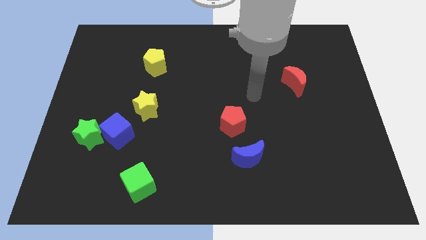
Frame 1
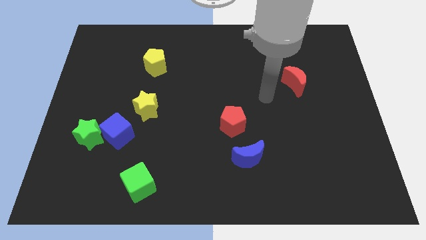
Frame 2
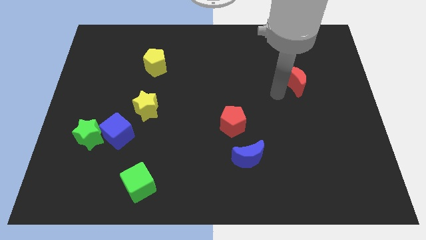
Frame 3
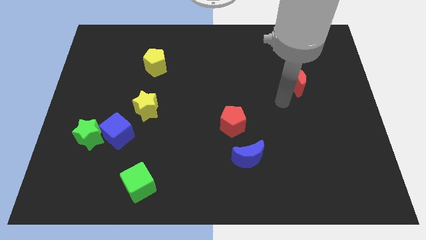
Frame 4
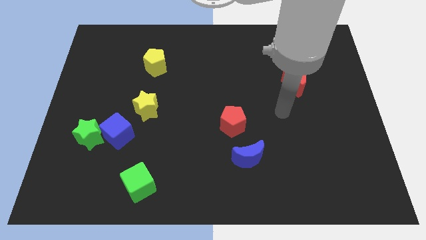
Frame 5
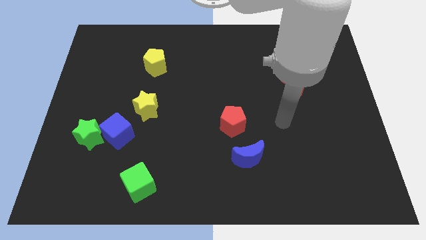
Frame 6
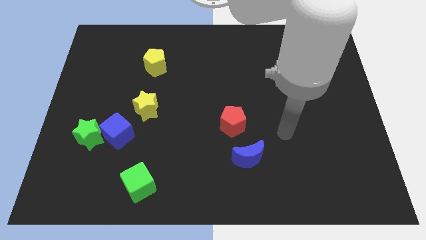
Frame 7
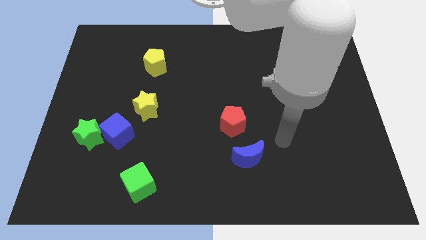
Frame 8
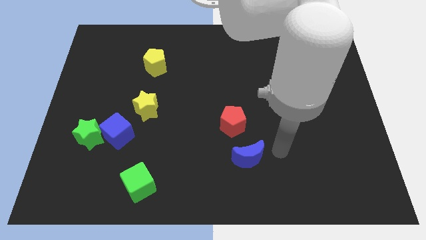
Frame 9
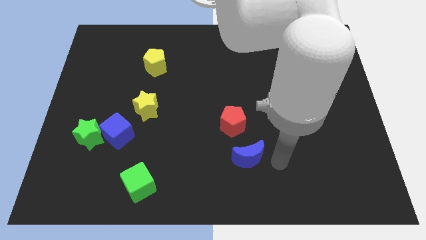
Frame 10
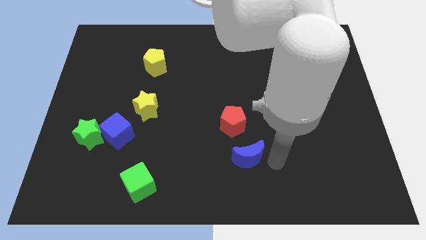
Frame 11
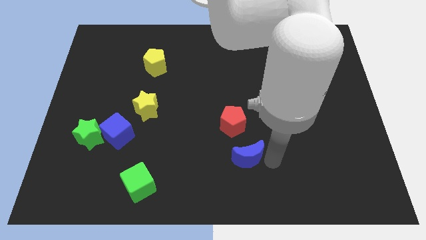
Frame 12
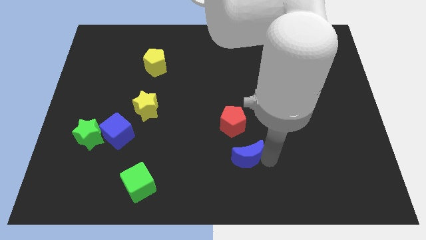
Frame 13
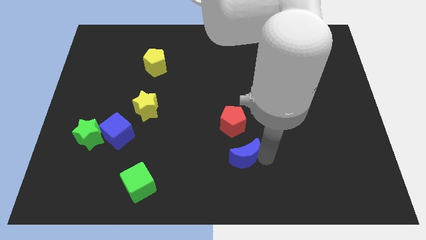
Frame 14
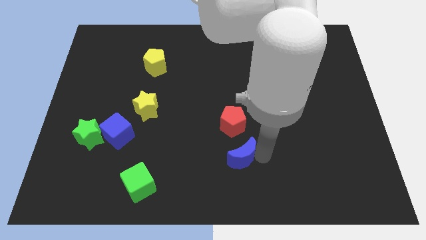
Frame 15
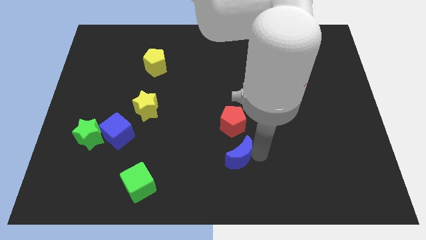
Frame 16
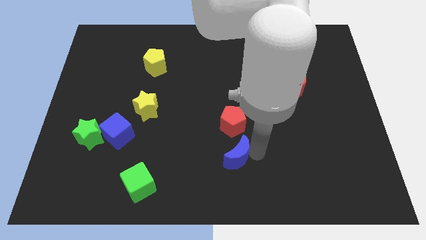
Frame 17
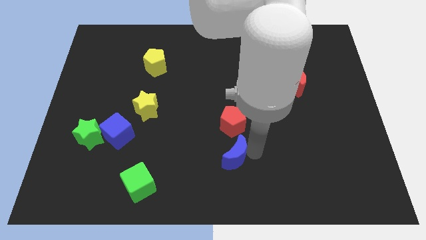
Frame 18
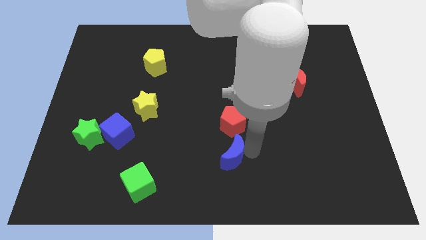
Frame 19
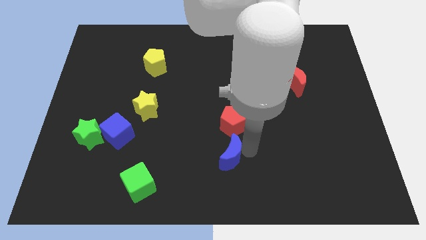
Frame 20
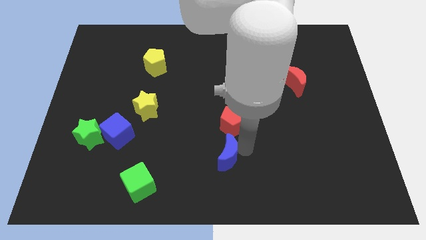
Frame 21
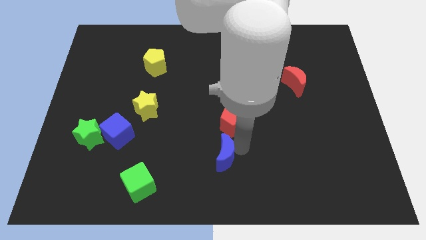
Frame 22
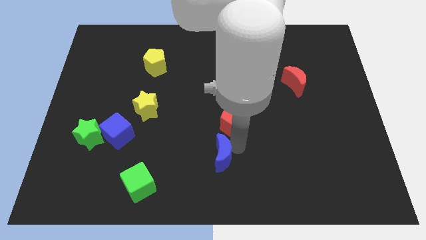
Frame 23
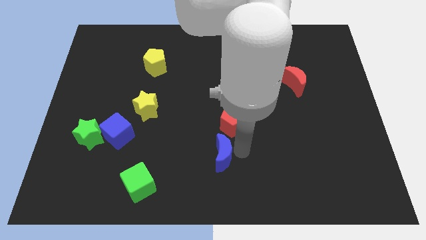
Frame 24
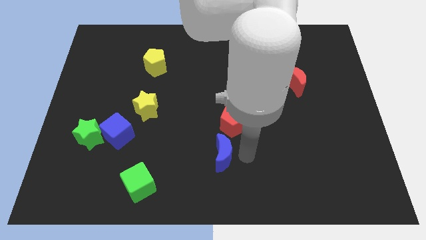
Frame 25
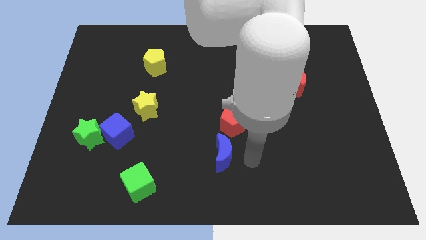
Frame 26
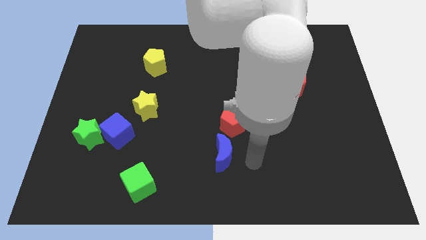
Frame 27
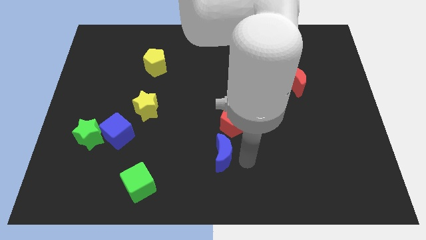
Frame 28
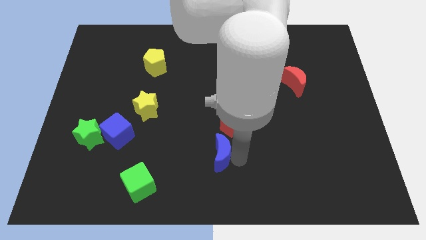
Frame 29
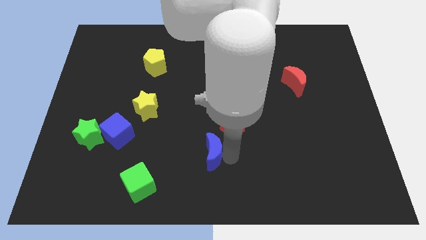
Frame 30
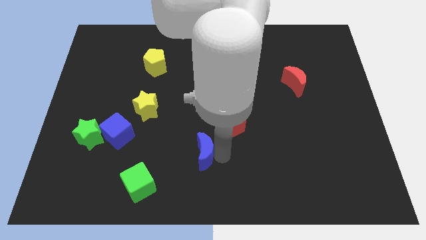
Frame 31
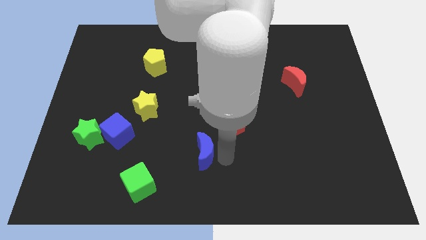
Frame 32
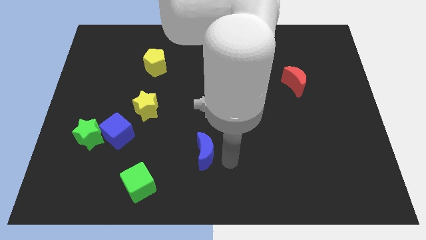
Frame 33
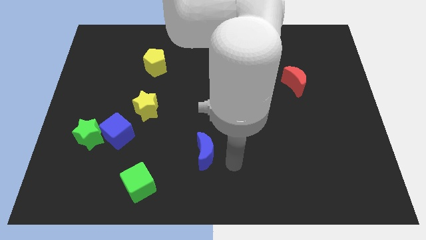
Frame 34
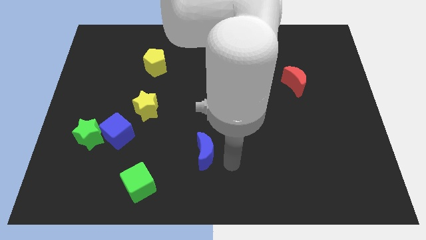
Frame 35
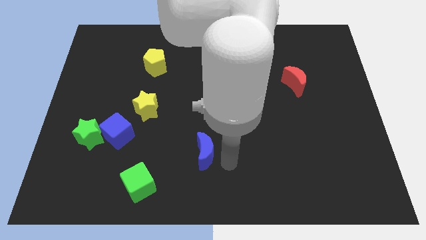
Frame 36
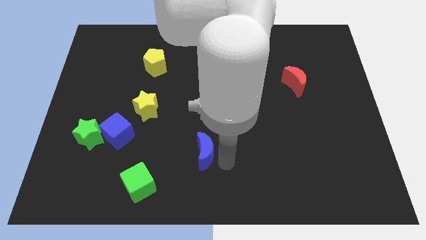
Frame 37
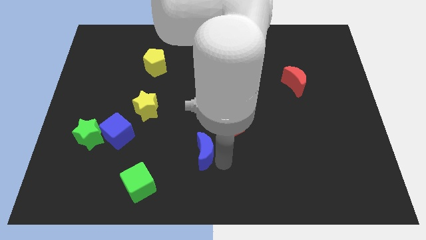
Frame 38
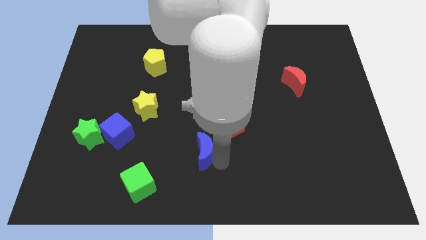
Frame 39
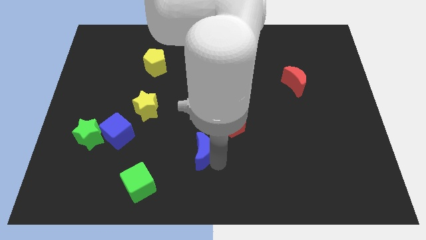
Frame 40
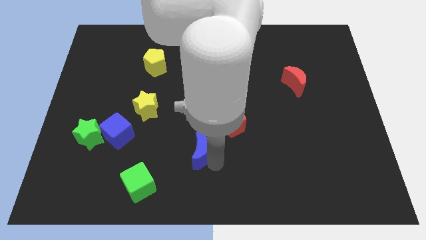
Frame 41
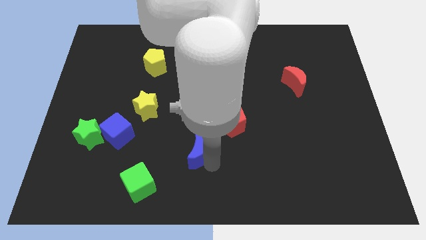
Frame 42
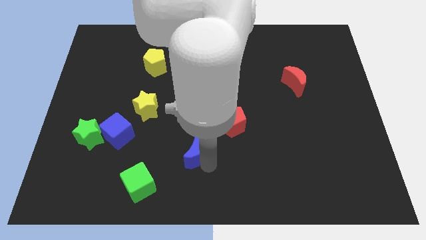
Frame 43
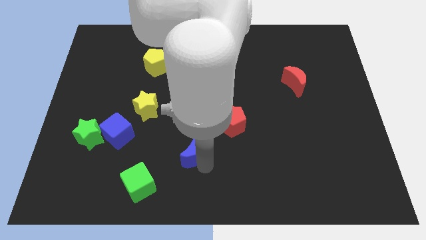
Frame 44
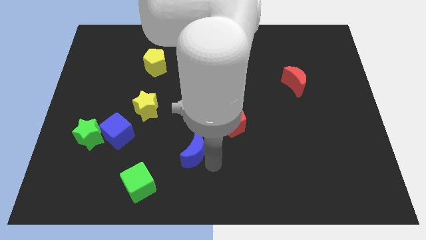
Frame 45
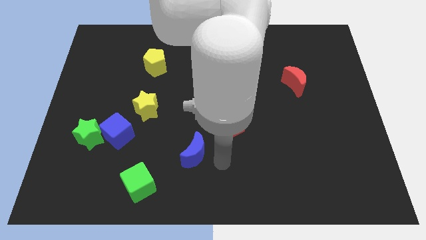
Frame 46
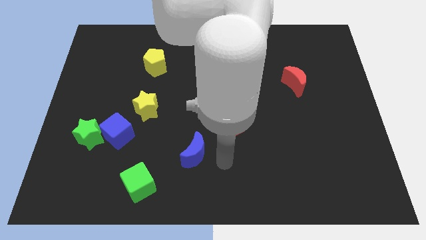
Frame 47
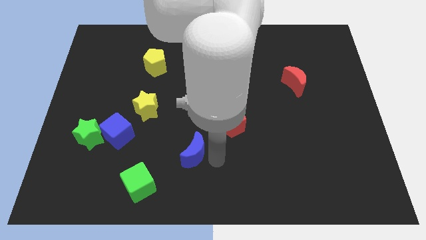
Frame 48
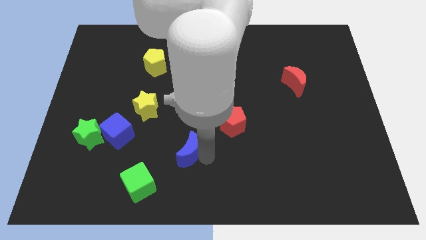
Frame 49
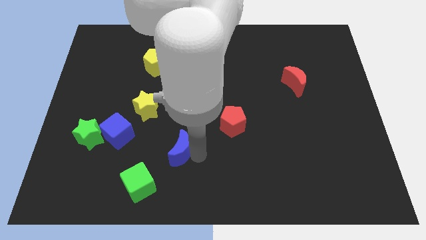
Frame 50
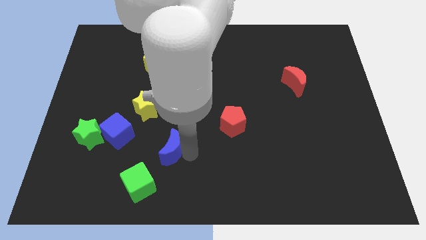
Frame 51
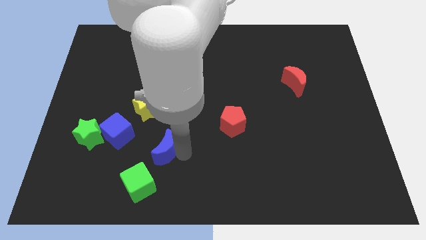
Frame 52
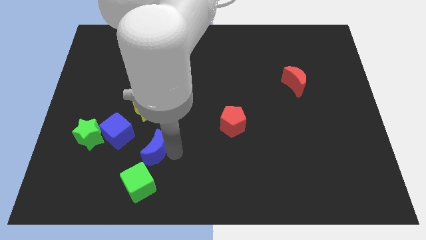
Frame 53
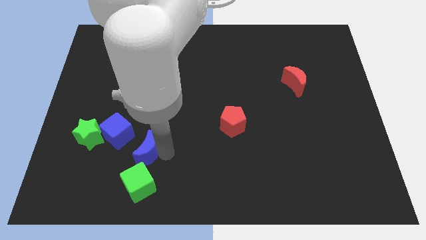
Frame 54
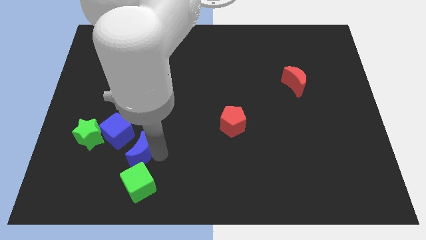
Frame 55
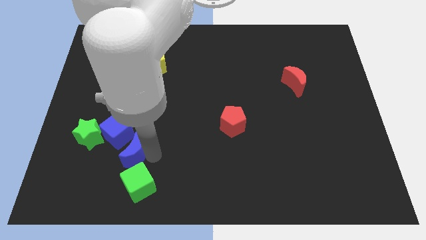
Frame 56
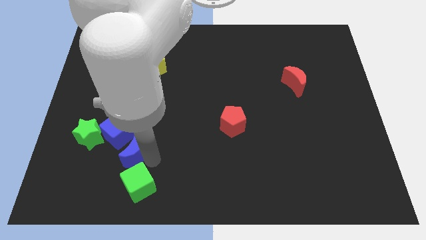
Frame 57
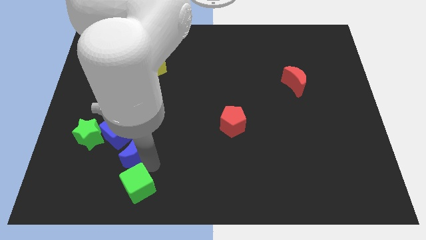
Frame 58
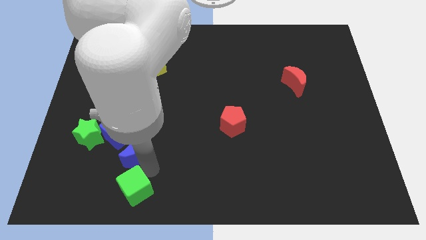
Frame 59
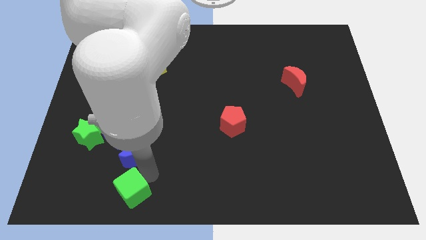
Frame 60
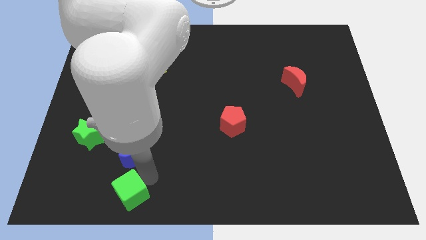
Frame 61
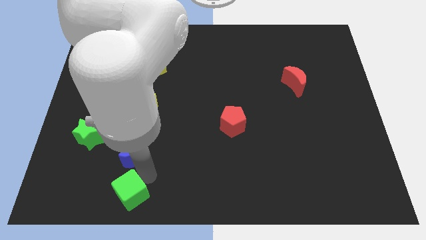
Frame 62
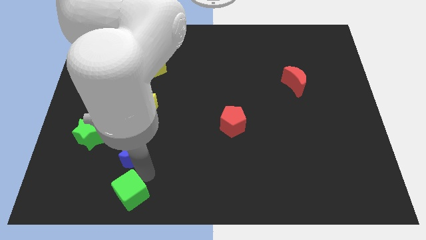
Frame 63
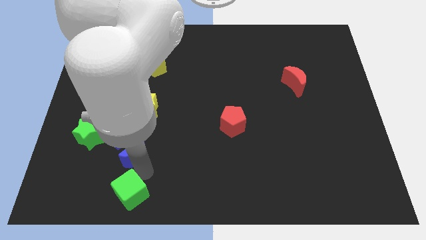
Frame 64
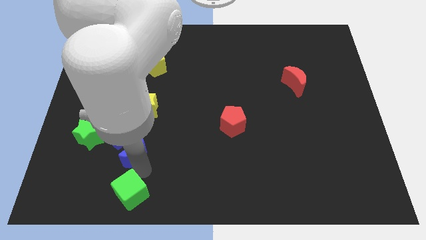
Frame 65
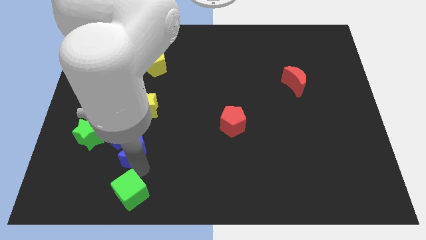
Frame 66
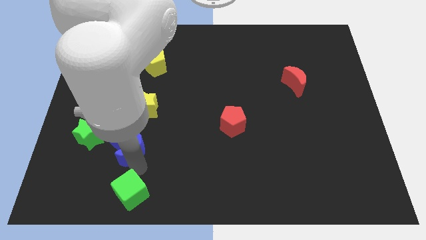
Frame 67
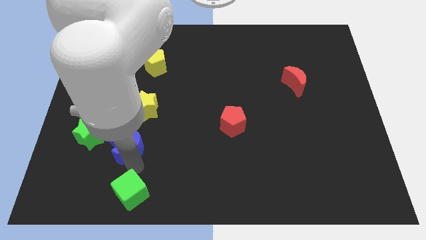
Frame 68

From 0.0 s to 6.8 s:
move the blue moon towards the blue cube

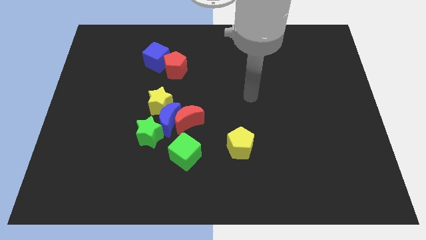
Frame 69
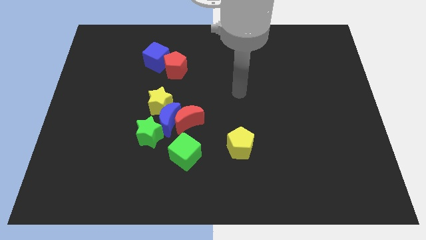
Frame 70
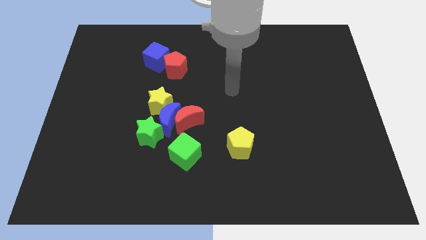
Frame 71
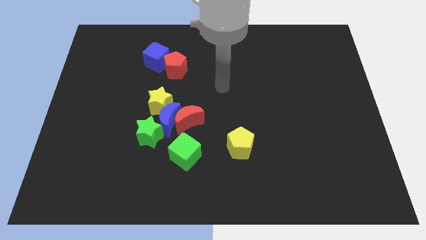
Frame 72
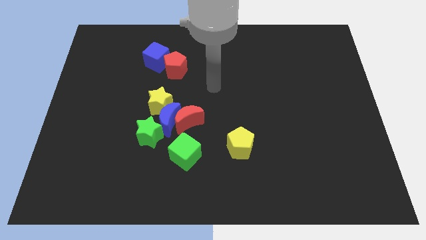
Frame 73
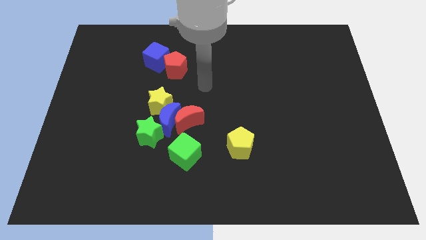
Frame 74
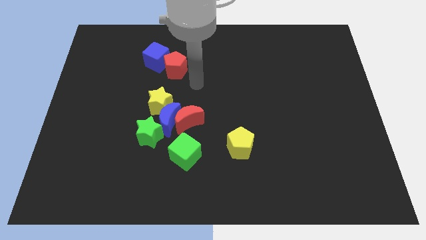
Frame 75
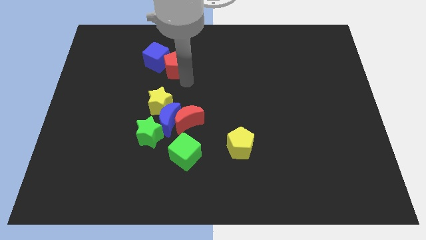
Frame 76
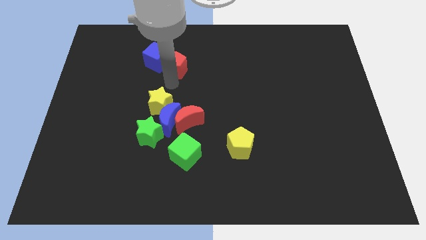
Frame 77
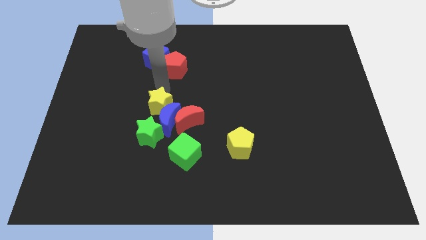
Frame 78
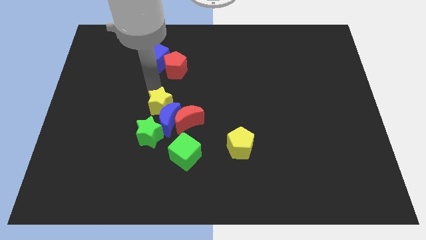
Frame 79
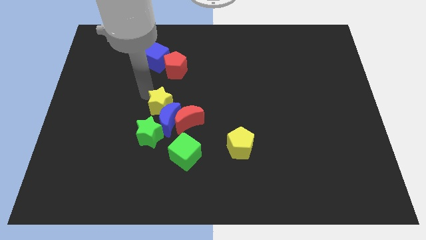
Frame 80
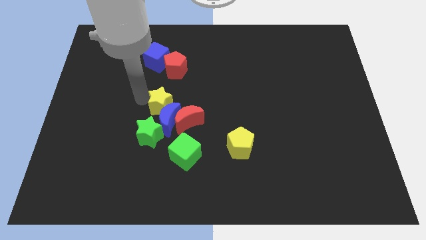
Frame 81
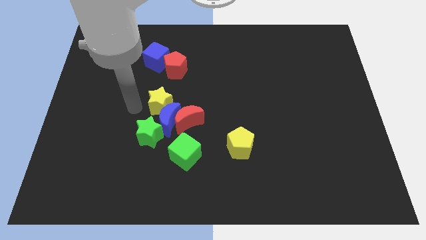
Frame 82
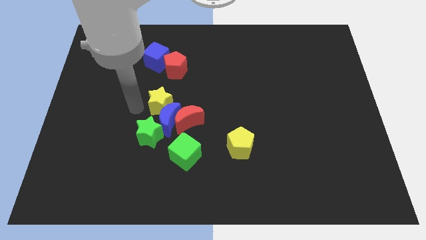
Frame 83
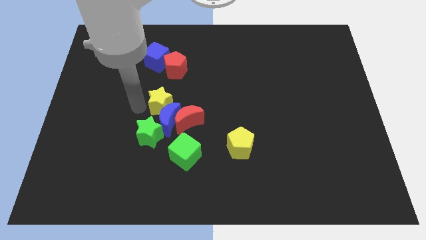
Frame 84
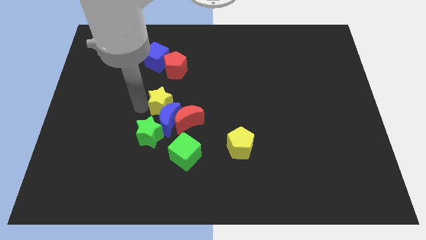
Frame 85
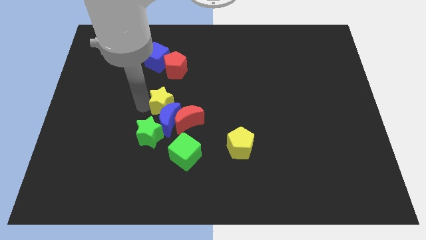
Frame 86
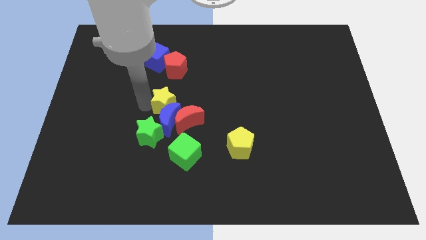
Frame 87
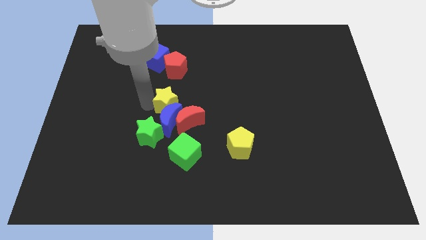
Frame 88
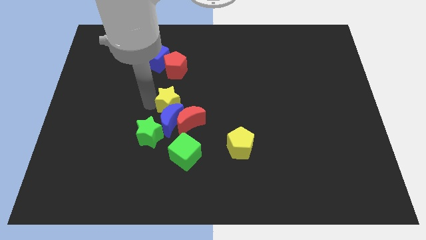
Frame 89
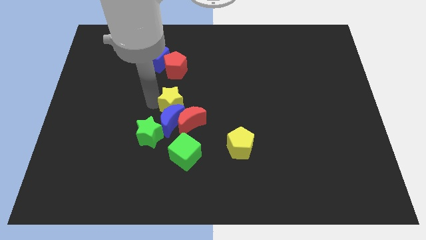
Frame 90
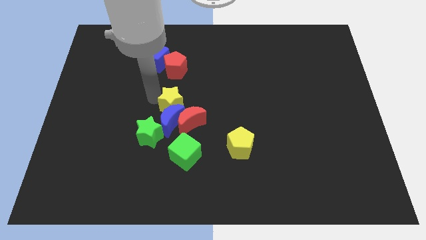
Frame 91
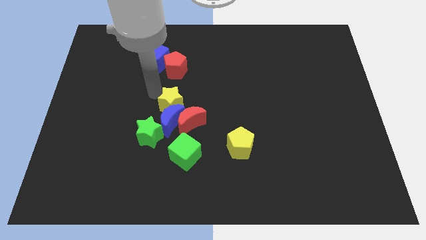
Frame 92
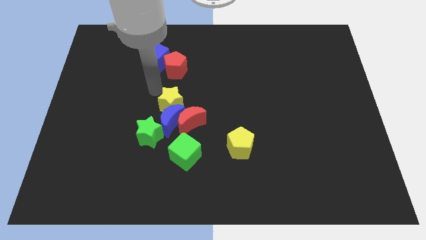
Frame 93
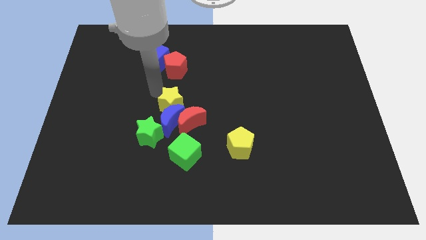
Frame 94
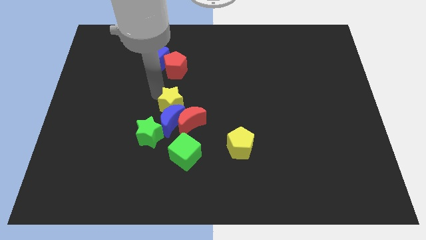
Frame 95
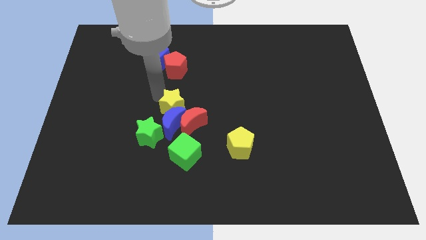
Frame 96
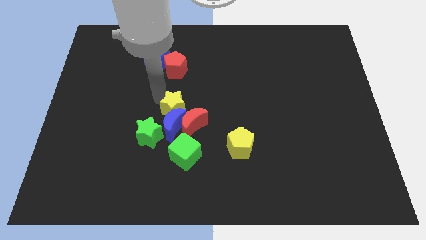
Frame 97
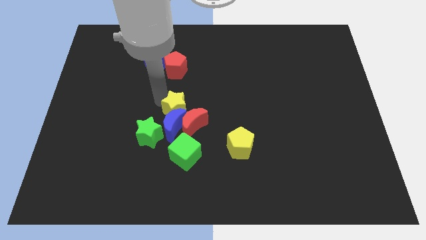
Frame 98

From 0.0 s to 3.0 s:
push the yellow star to the red moon
